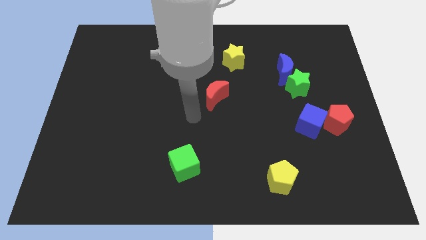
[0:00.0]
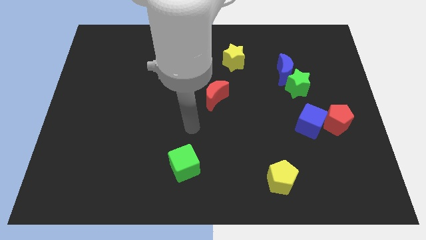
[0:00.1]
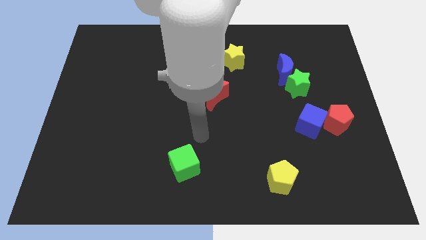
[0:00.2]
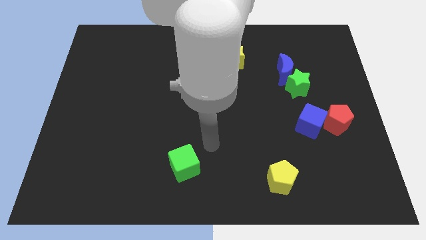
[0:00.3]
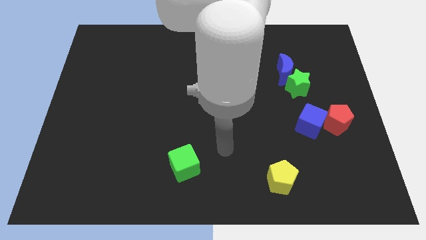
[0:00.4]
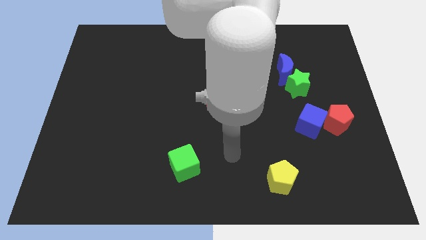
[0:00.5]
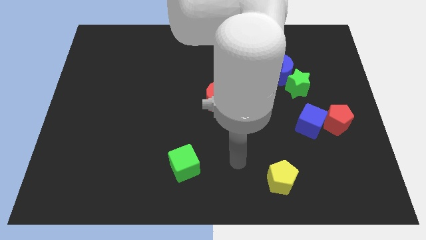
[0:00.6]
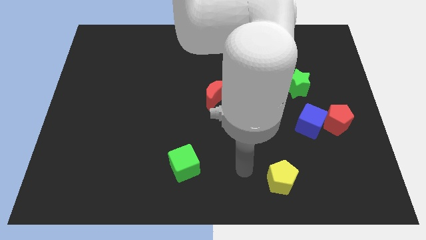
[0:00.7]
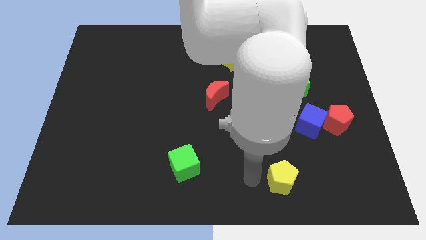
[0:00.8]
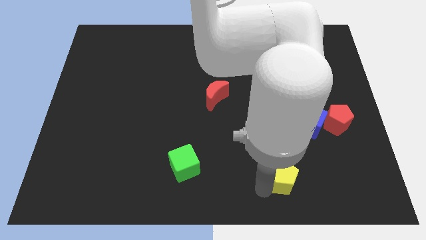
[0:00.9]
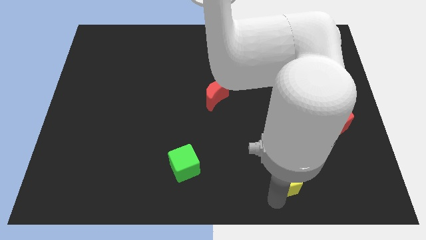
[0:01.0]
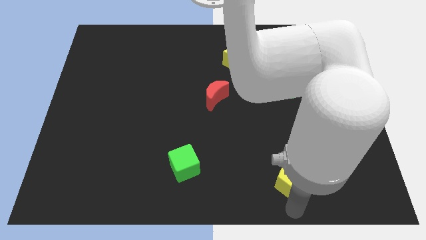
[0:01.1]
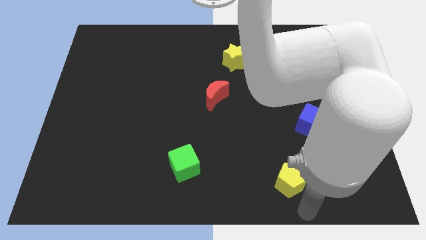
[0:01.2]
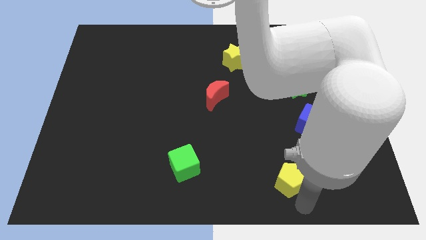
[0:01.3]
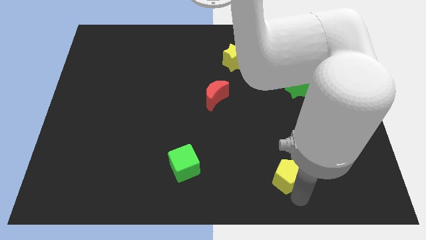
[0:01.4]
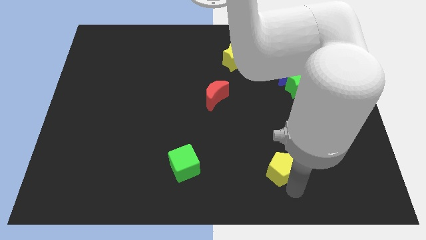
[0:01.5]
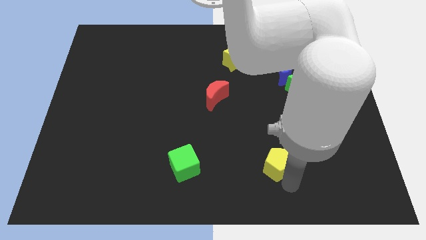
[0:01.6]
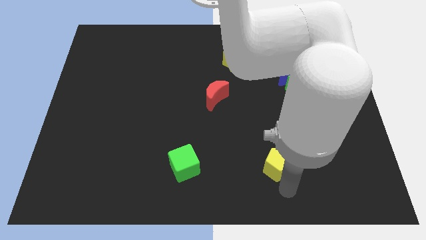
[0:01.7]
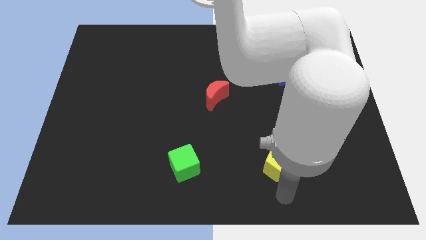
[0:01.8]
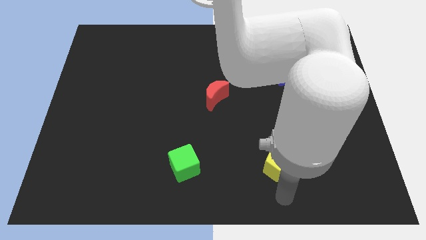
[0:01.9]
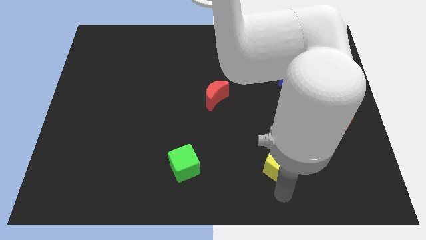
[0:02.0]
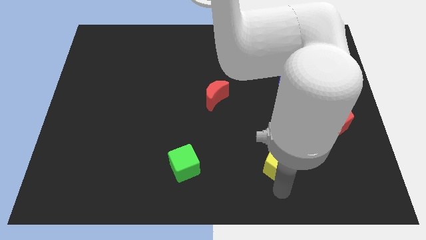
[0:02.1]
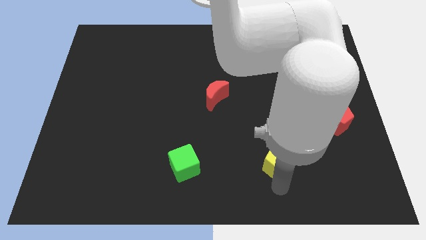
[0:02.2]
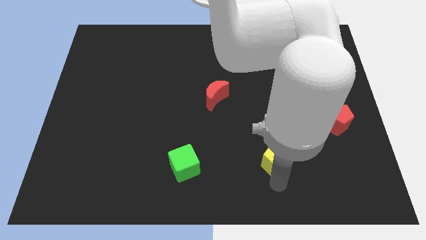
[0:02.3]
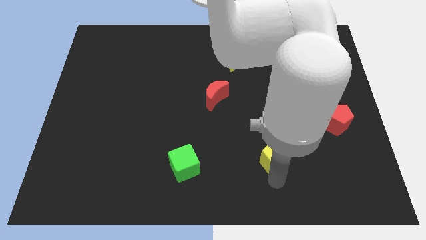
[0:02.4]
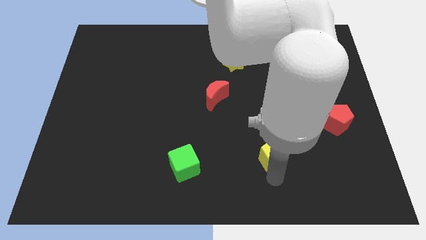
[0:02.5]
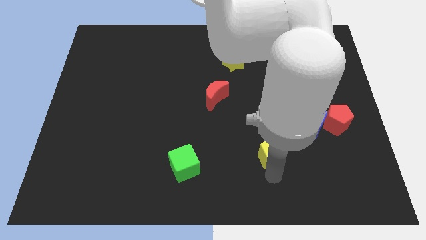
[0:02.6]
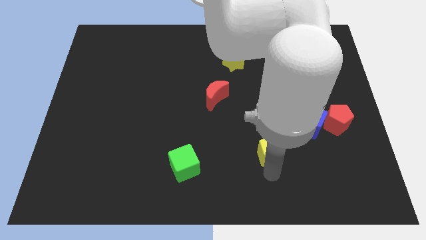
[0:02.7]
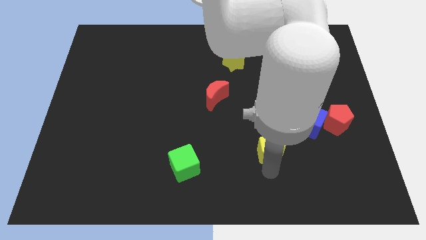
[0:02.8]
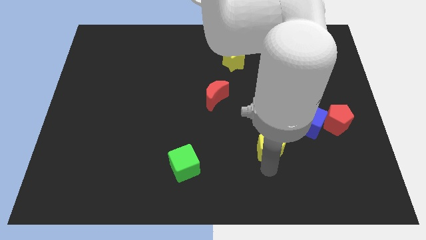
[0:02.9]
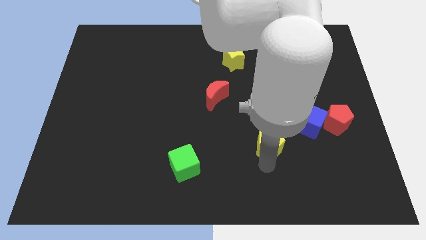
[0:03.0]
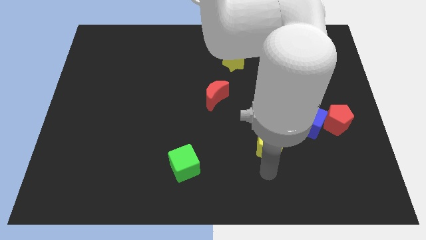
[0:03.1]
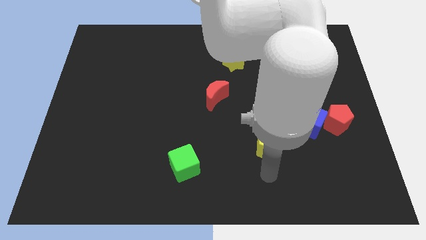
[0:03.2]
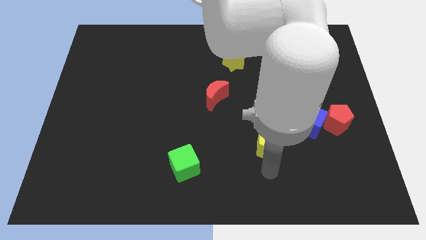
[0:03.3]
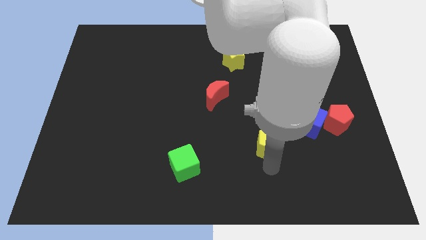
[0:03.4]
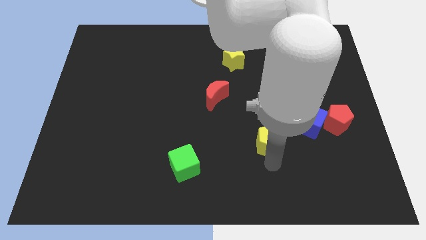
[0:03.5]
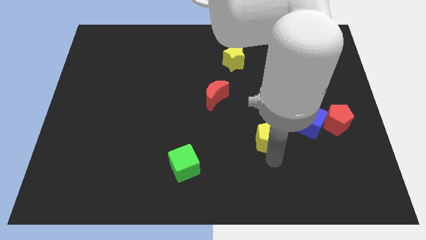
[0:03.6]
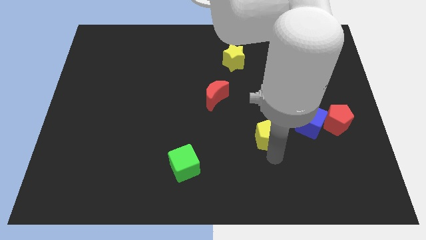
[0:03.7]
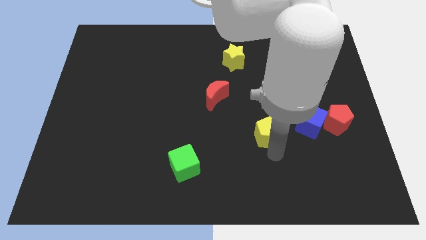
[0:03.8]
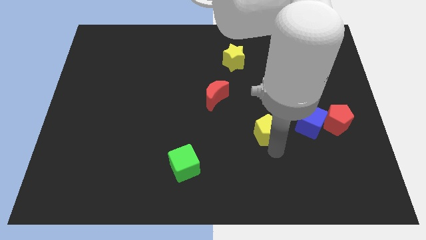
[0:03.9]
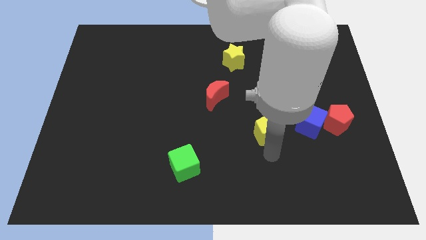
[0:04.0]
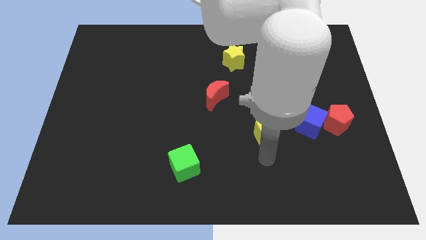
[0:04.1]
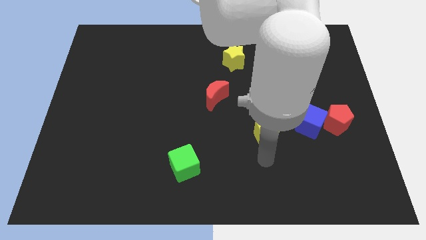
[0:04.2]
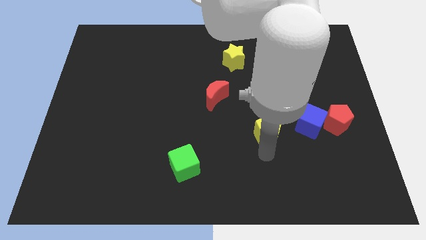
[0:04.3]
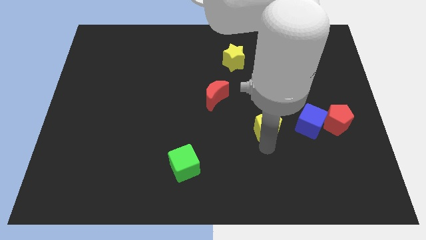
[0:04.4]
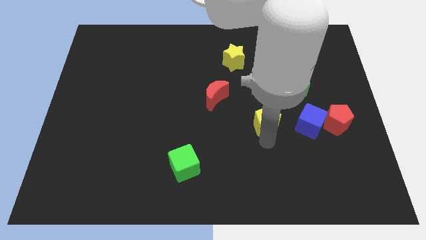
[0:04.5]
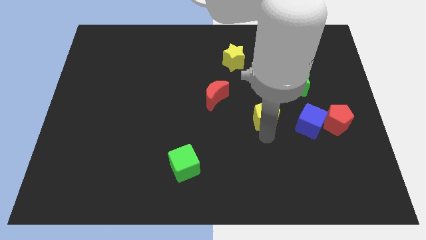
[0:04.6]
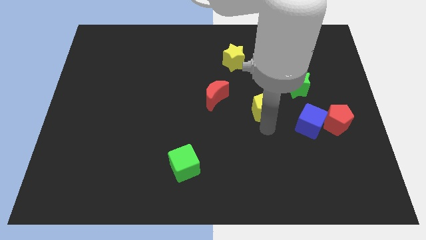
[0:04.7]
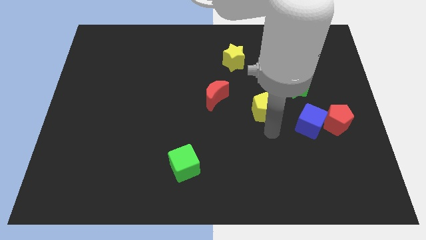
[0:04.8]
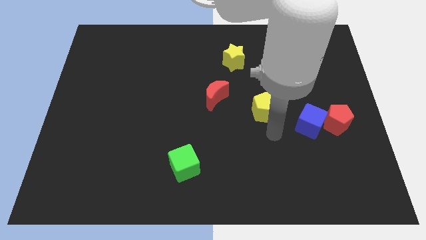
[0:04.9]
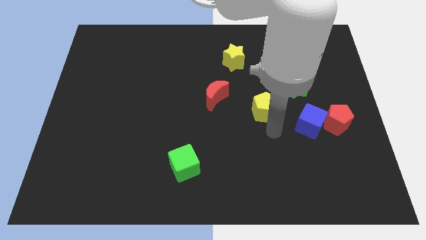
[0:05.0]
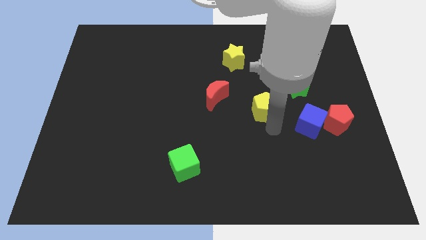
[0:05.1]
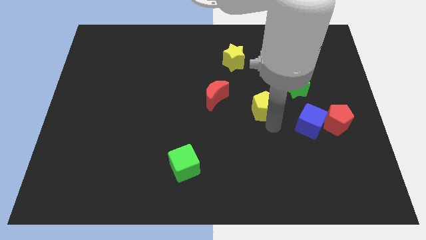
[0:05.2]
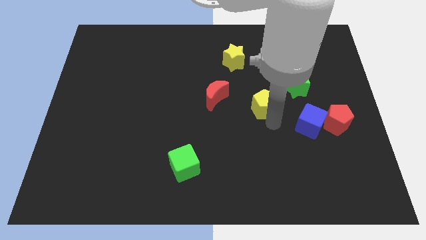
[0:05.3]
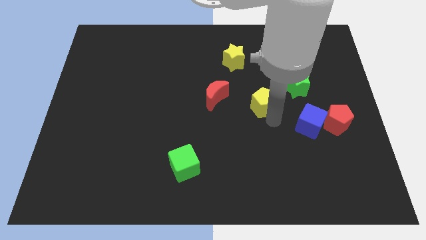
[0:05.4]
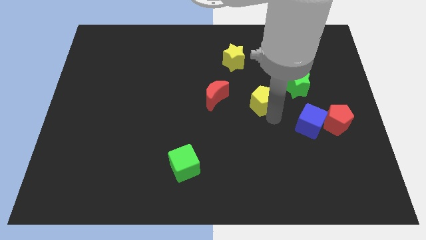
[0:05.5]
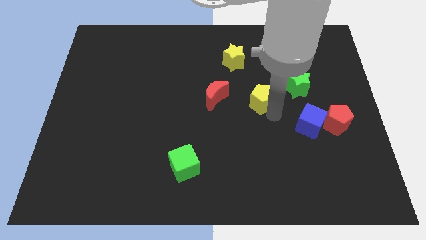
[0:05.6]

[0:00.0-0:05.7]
put the yellow pentagon to the left of the green star
